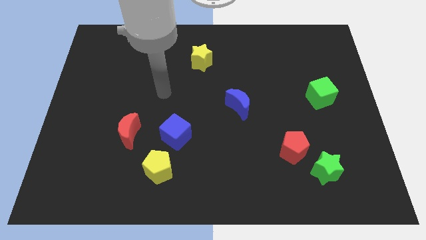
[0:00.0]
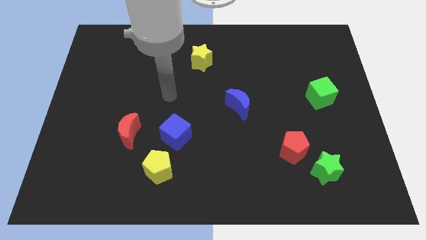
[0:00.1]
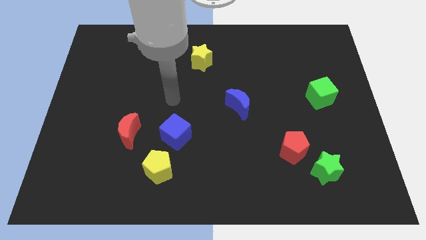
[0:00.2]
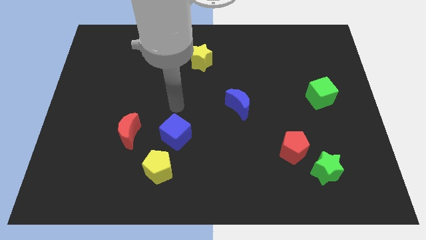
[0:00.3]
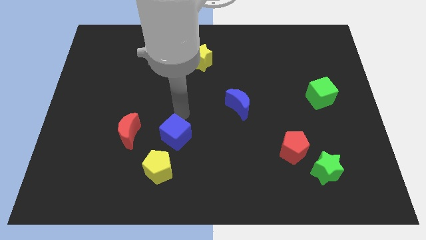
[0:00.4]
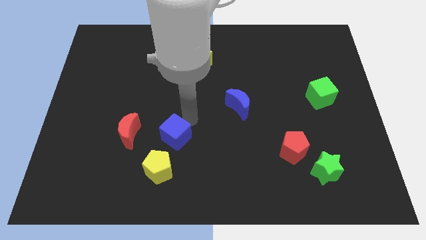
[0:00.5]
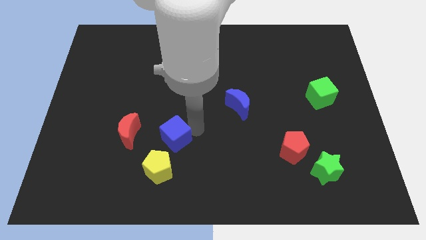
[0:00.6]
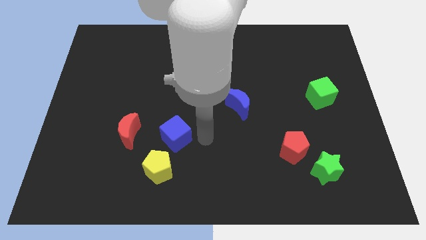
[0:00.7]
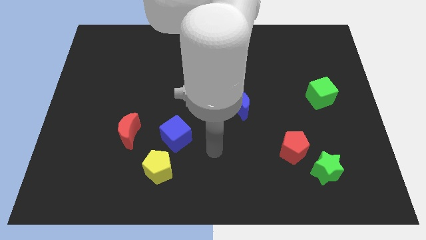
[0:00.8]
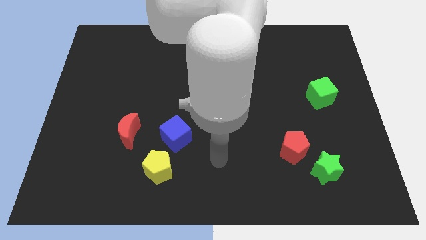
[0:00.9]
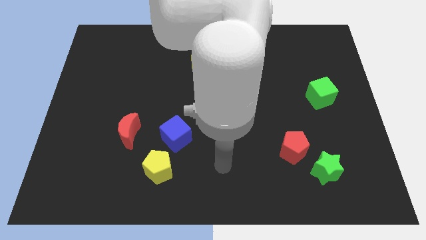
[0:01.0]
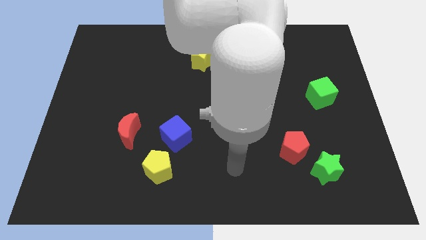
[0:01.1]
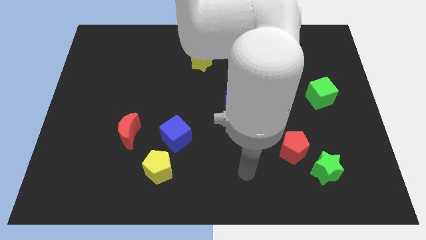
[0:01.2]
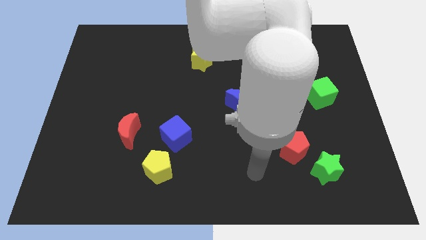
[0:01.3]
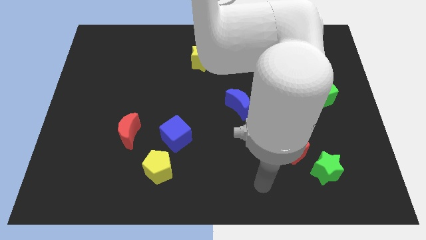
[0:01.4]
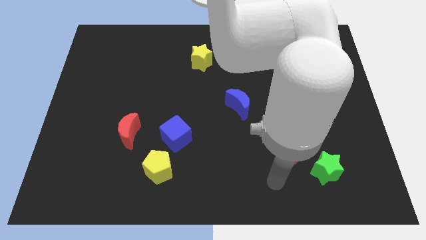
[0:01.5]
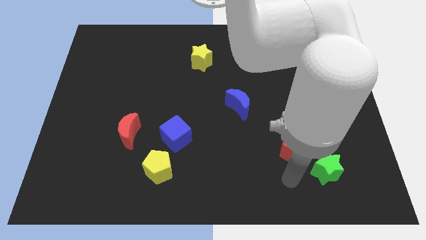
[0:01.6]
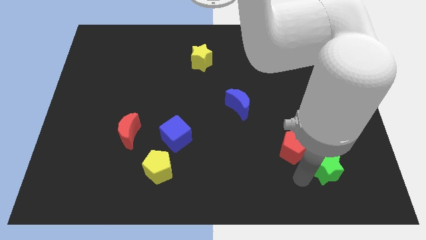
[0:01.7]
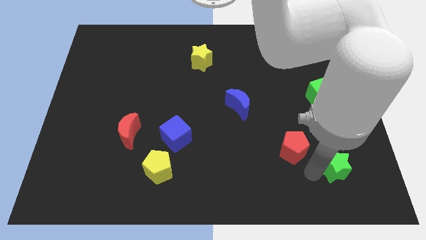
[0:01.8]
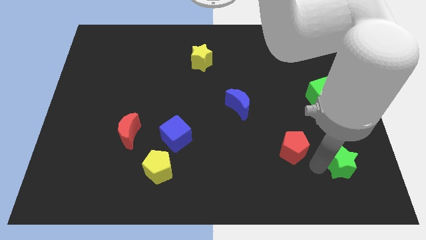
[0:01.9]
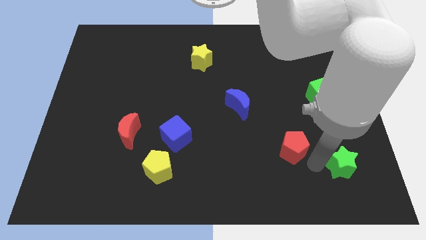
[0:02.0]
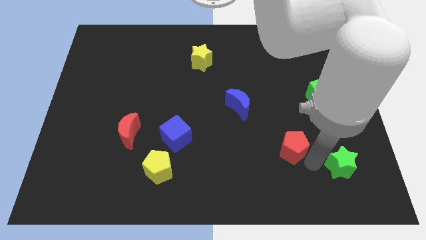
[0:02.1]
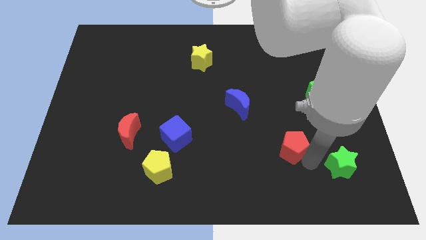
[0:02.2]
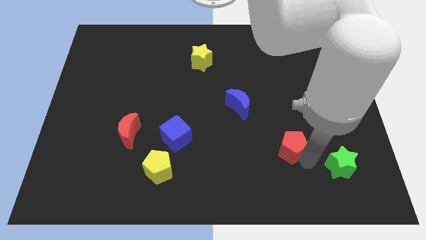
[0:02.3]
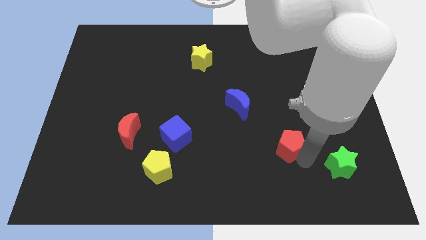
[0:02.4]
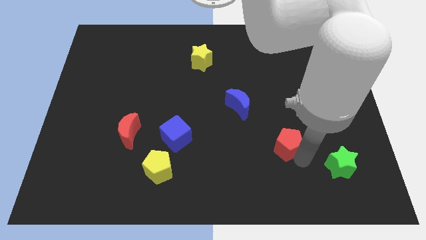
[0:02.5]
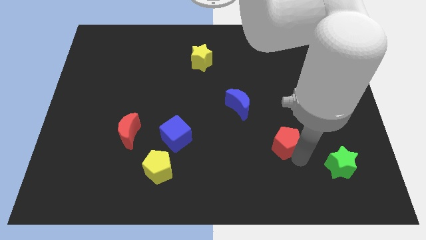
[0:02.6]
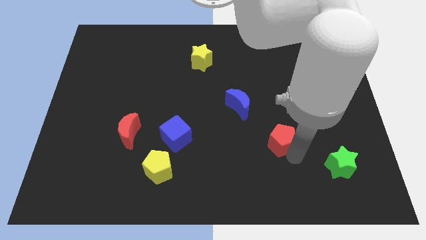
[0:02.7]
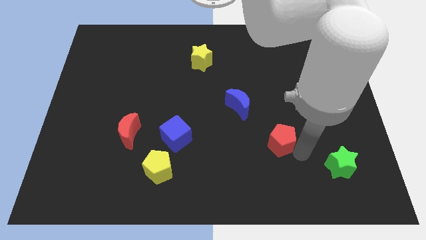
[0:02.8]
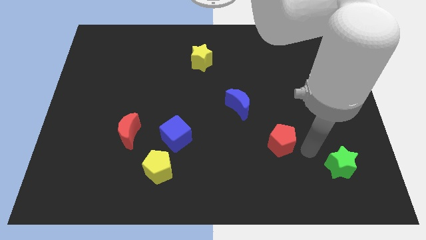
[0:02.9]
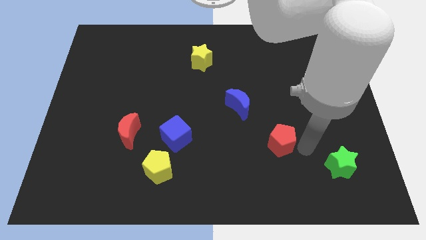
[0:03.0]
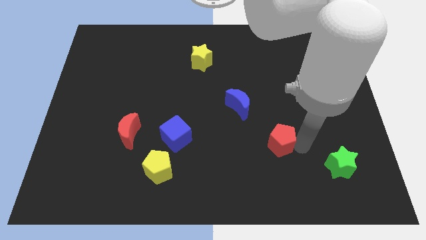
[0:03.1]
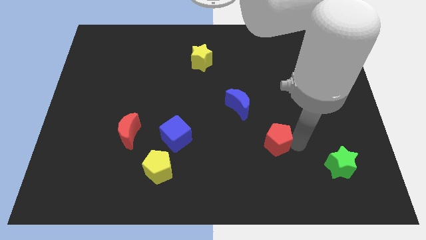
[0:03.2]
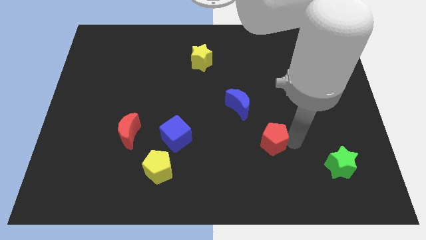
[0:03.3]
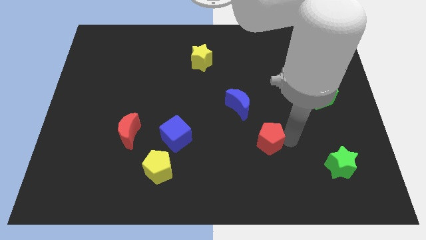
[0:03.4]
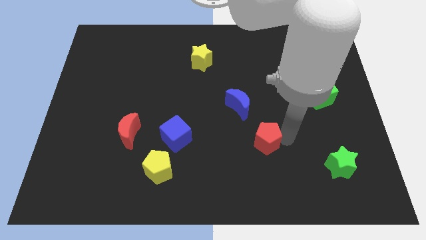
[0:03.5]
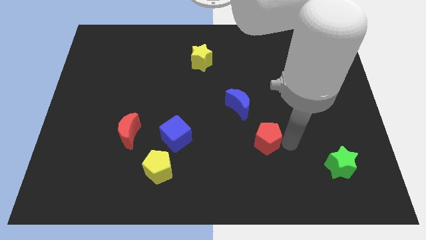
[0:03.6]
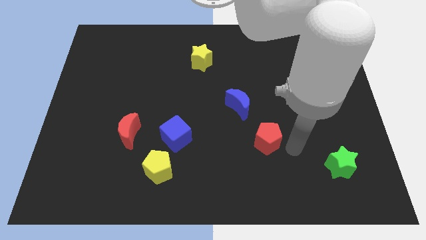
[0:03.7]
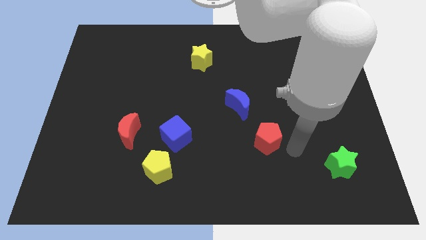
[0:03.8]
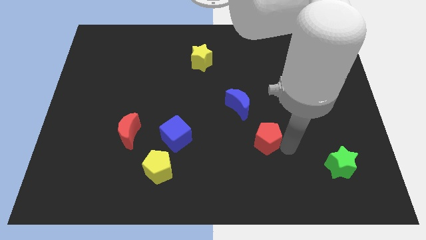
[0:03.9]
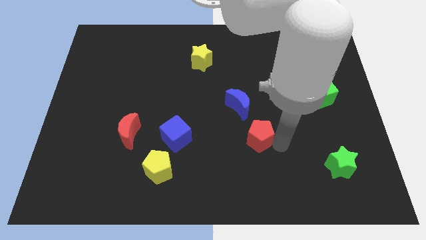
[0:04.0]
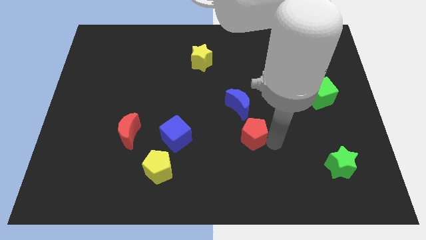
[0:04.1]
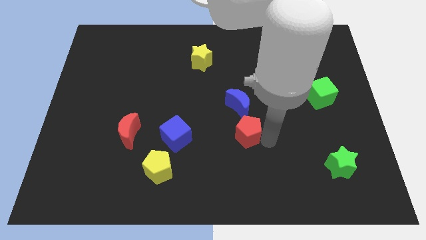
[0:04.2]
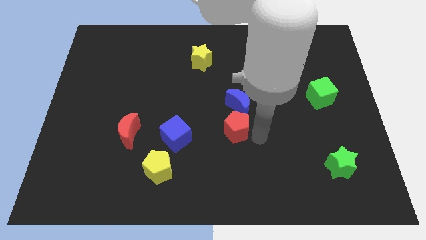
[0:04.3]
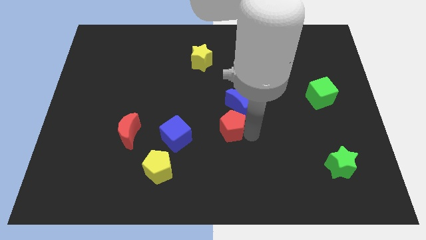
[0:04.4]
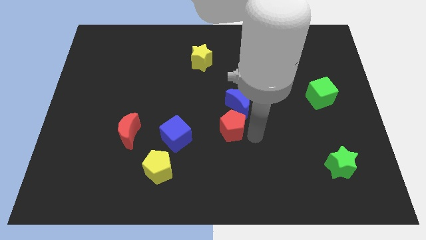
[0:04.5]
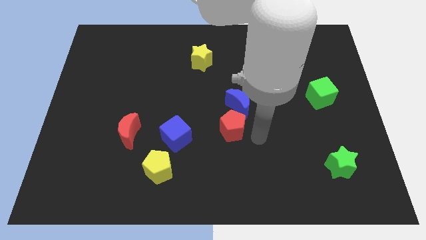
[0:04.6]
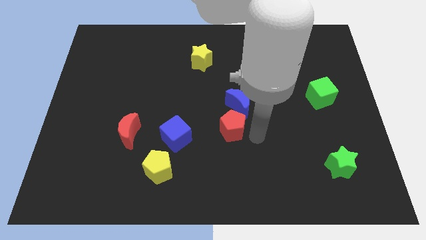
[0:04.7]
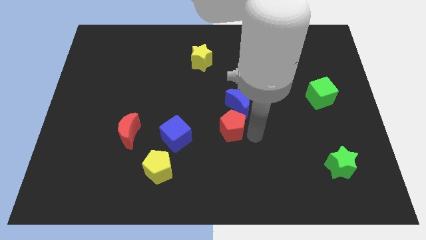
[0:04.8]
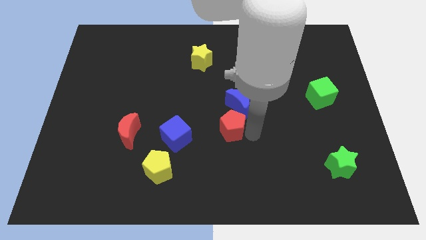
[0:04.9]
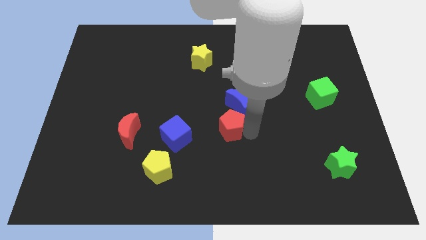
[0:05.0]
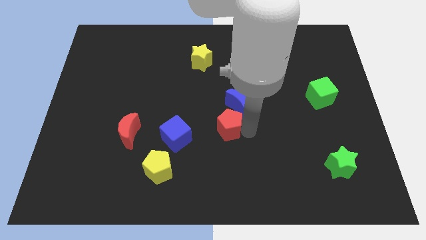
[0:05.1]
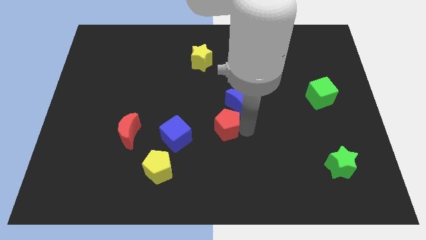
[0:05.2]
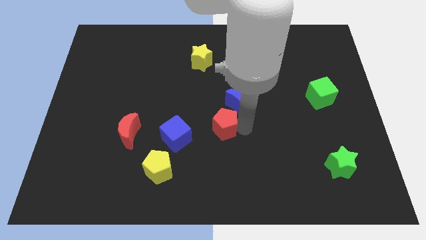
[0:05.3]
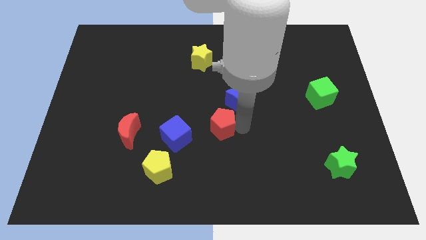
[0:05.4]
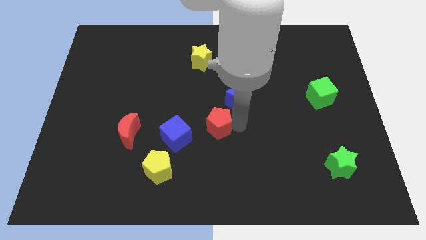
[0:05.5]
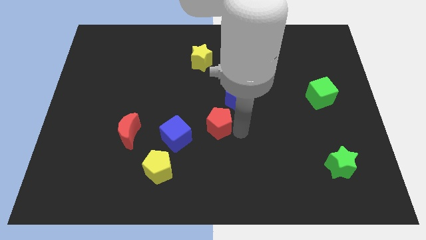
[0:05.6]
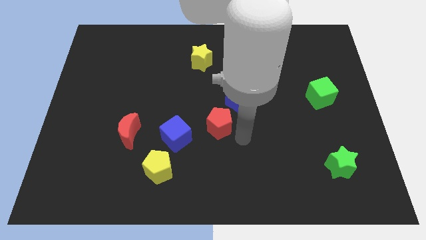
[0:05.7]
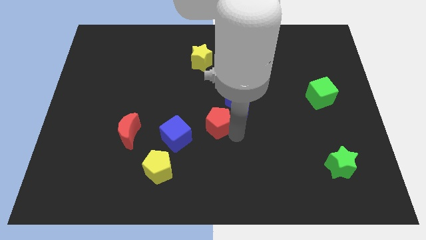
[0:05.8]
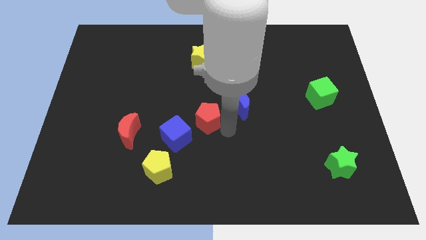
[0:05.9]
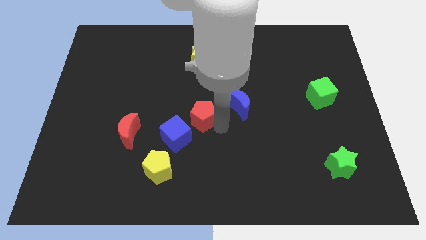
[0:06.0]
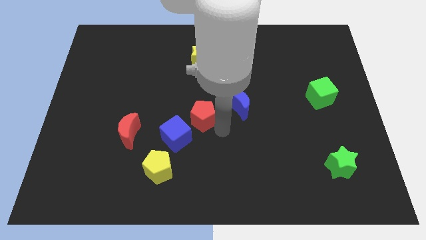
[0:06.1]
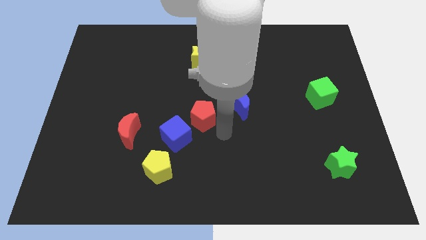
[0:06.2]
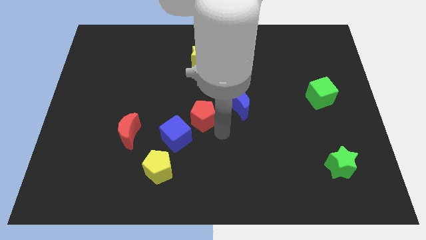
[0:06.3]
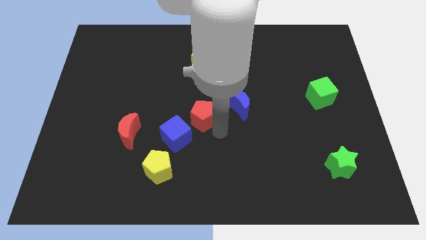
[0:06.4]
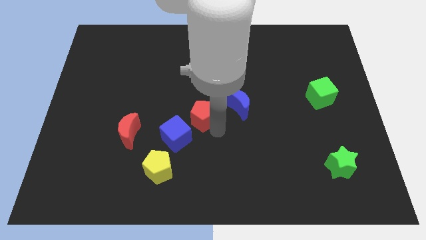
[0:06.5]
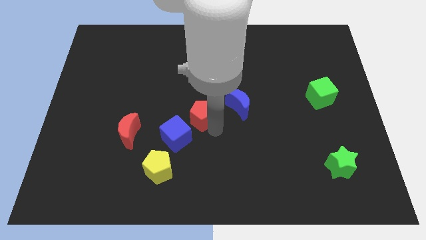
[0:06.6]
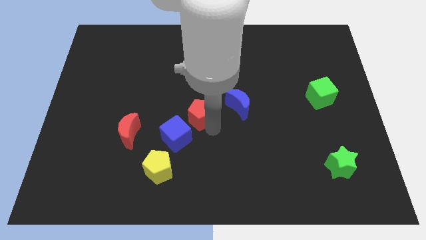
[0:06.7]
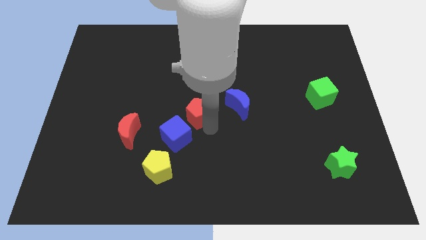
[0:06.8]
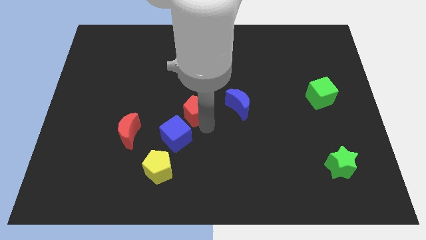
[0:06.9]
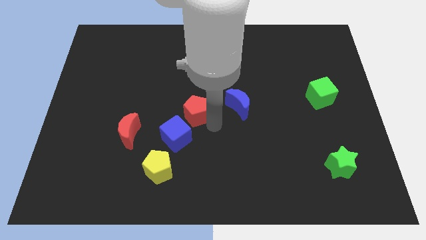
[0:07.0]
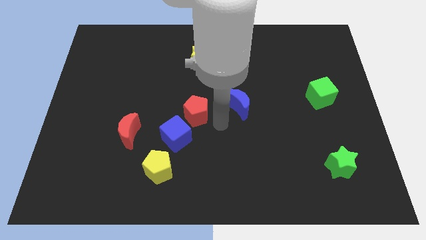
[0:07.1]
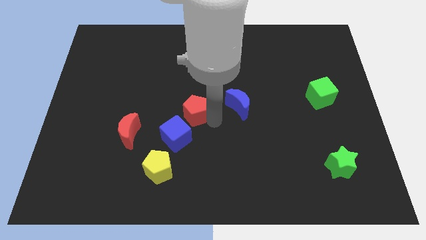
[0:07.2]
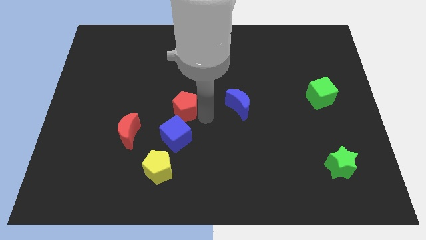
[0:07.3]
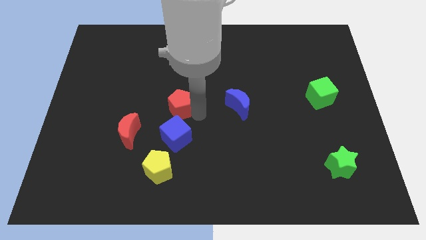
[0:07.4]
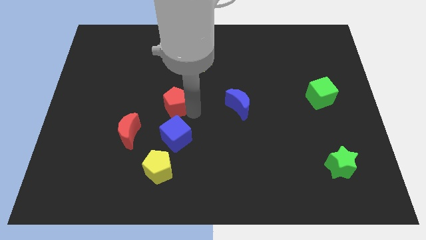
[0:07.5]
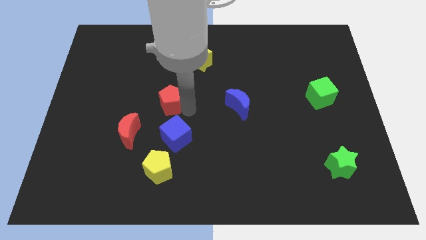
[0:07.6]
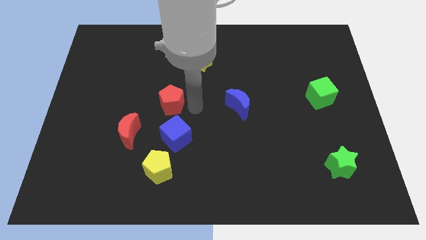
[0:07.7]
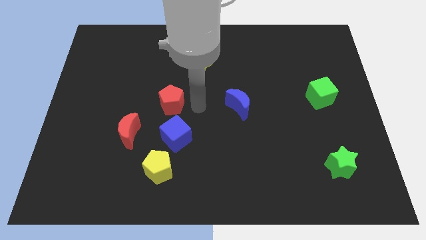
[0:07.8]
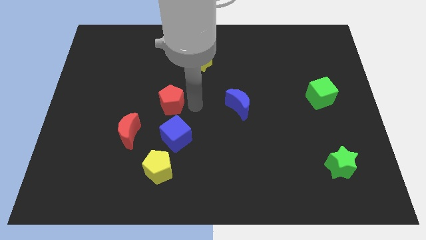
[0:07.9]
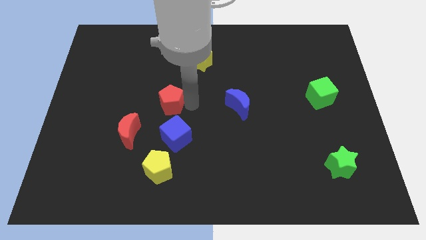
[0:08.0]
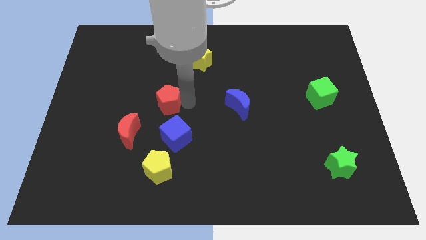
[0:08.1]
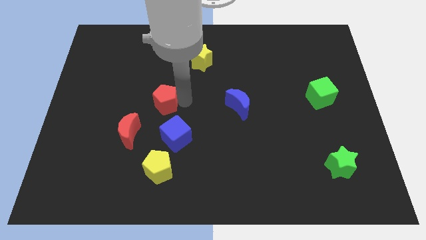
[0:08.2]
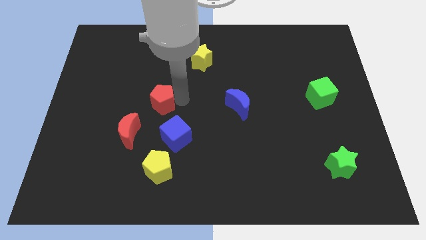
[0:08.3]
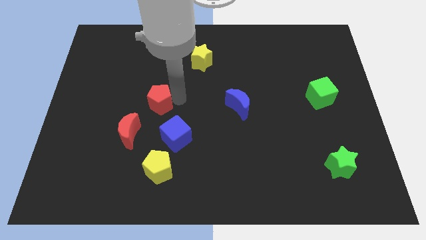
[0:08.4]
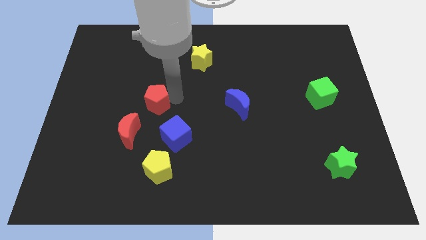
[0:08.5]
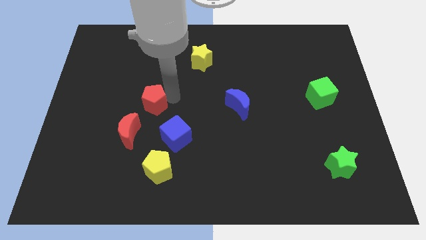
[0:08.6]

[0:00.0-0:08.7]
slide the red pentagon to the top side of the red moon
